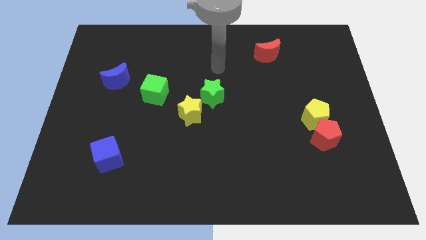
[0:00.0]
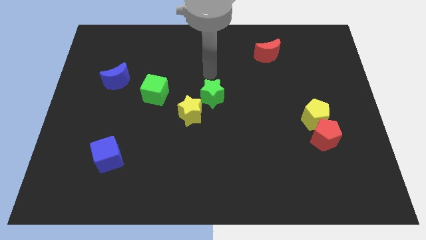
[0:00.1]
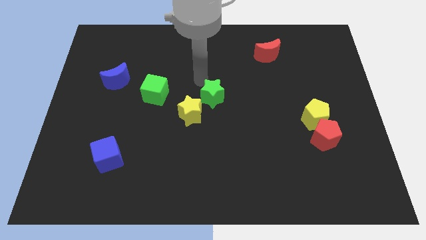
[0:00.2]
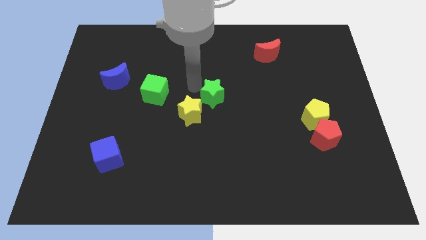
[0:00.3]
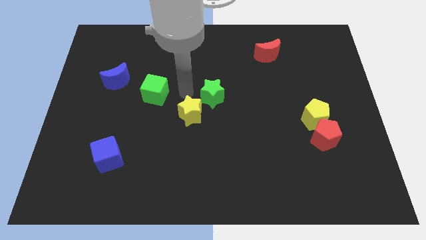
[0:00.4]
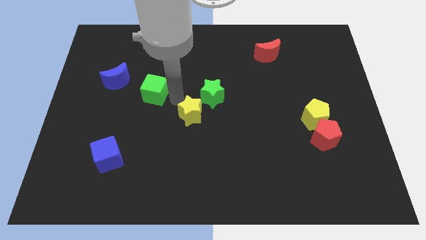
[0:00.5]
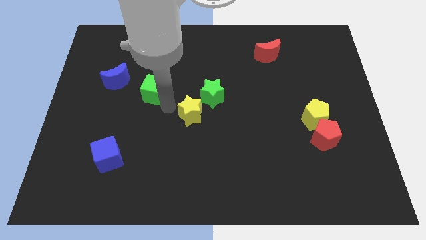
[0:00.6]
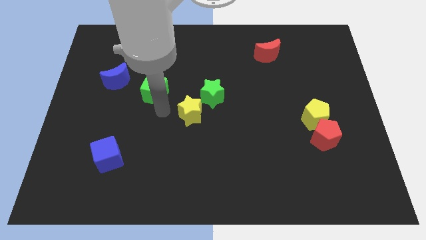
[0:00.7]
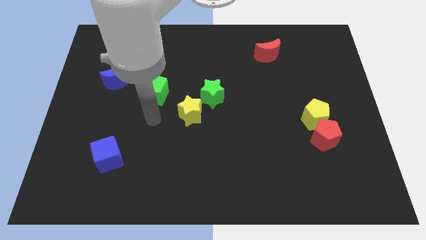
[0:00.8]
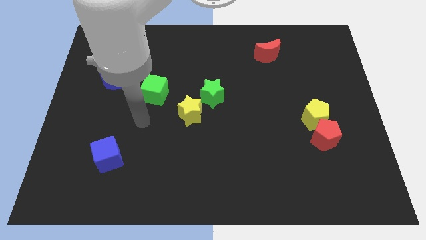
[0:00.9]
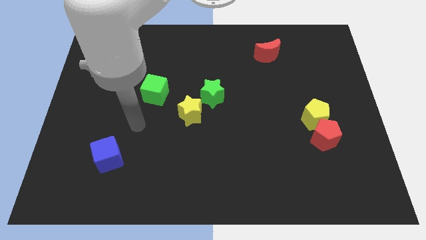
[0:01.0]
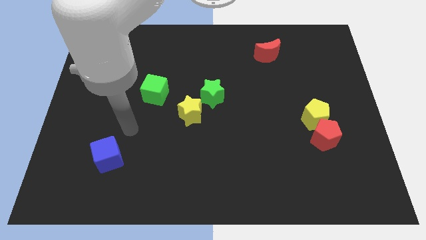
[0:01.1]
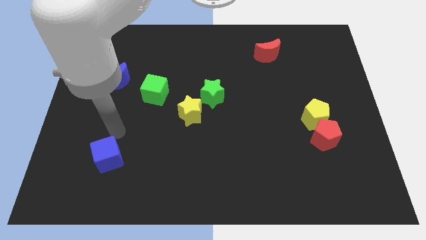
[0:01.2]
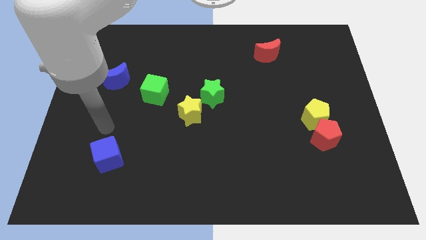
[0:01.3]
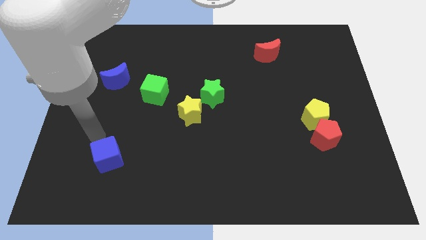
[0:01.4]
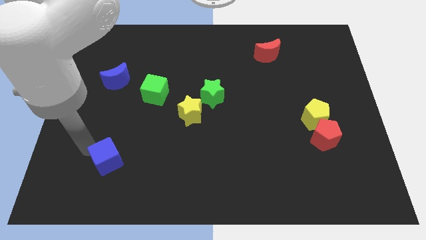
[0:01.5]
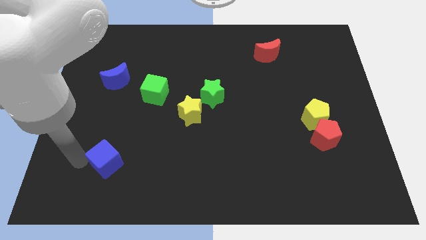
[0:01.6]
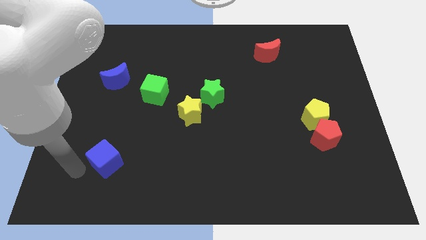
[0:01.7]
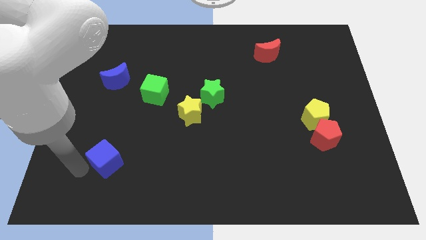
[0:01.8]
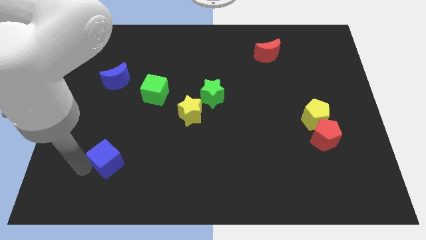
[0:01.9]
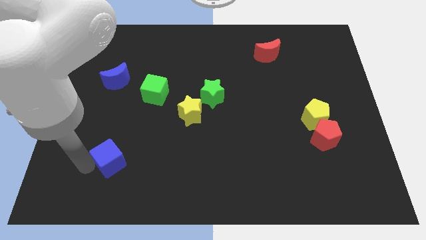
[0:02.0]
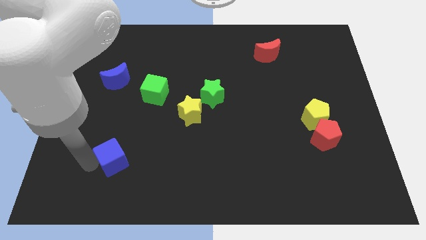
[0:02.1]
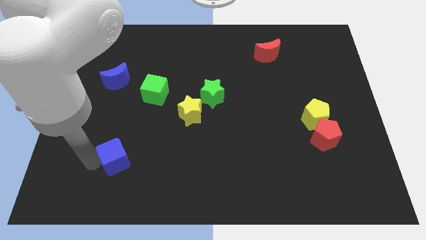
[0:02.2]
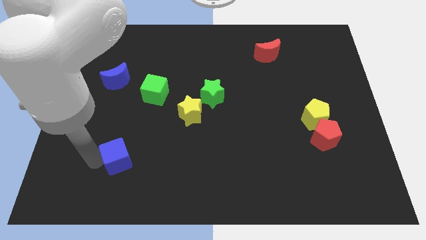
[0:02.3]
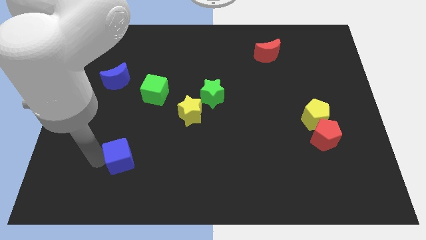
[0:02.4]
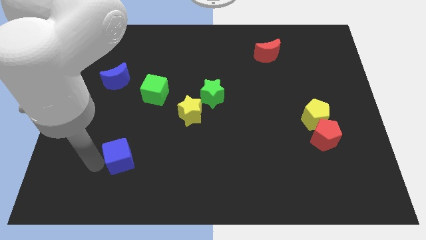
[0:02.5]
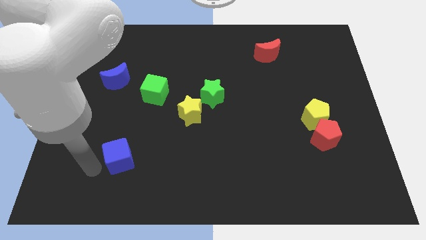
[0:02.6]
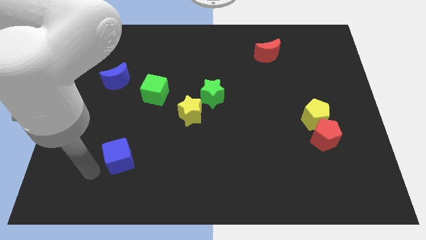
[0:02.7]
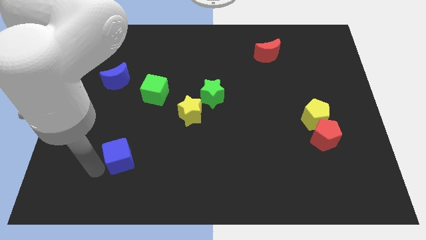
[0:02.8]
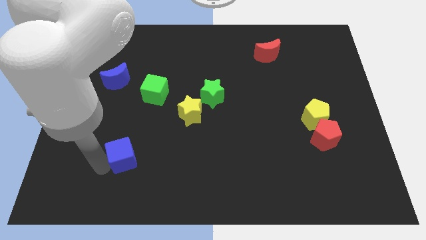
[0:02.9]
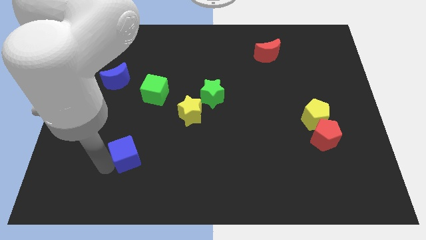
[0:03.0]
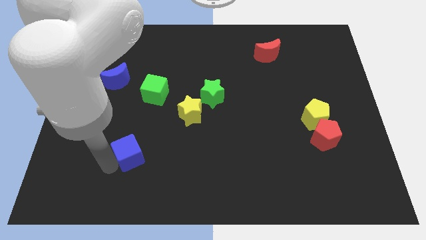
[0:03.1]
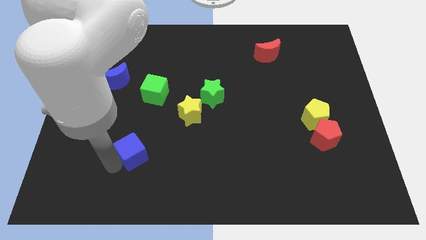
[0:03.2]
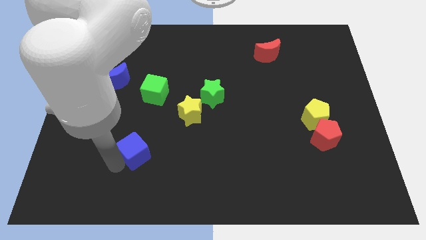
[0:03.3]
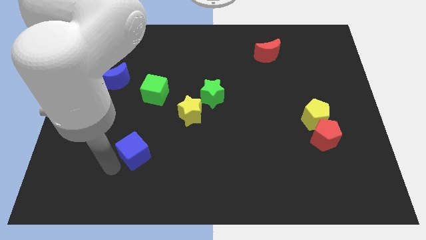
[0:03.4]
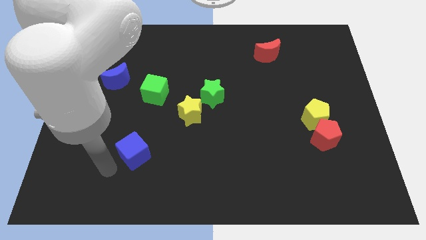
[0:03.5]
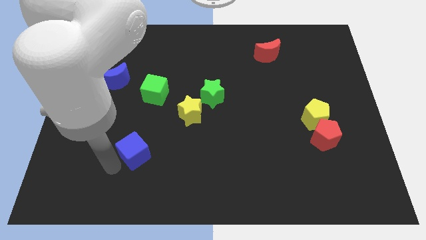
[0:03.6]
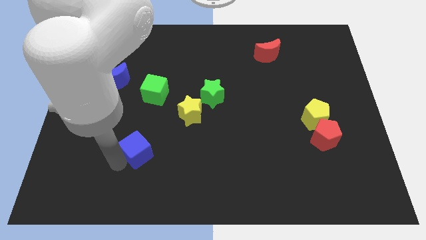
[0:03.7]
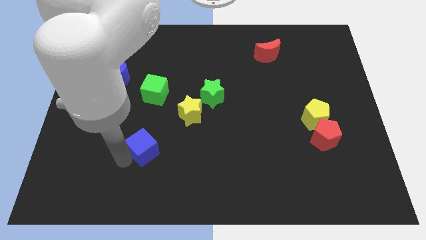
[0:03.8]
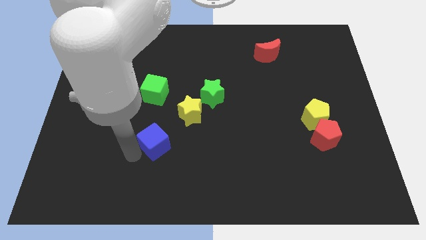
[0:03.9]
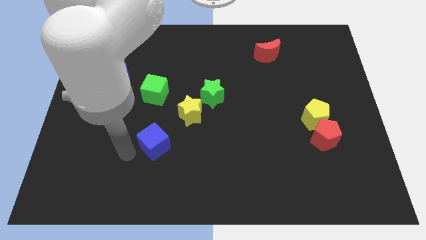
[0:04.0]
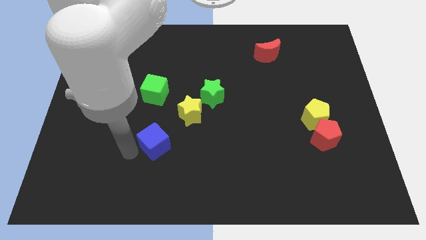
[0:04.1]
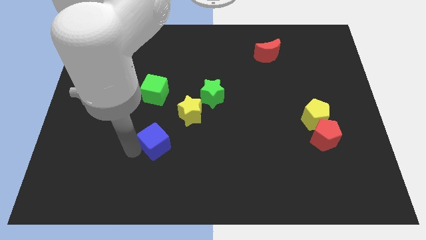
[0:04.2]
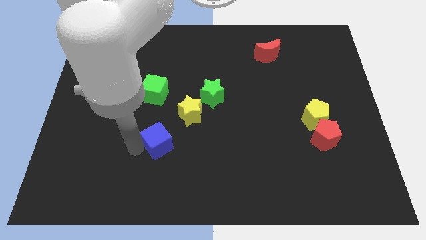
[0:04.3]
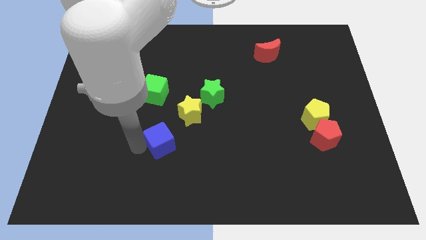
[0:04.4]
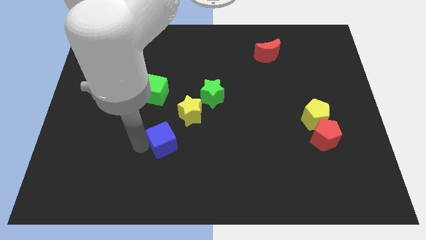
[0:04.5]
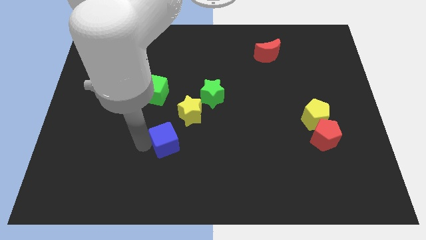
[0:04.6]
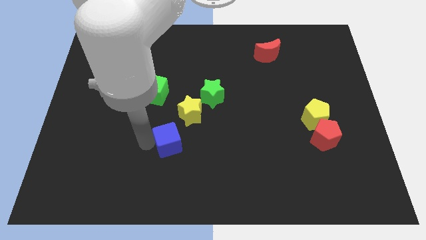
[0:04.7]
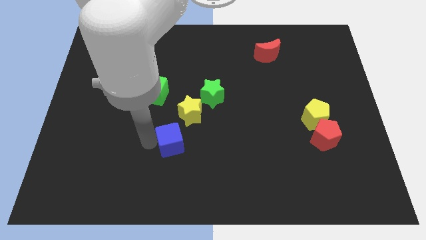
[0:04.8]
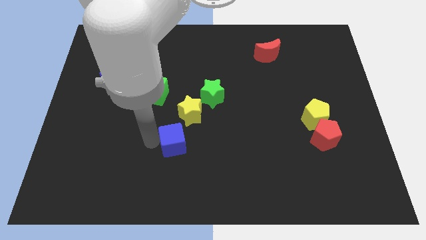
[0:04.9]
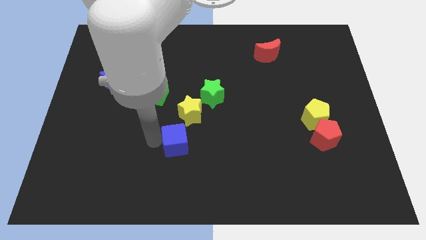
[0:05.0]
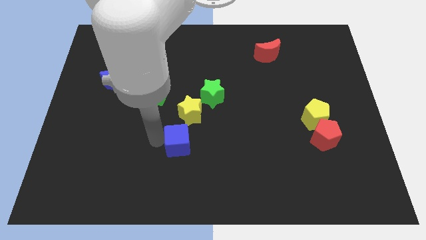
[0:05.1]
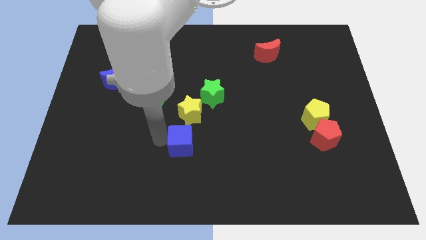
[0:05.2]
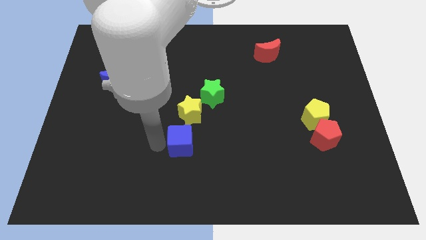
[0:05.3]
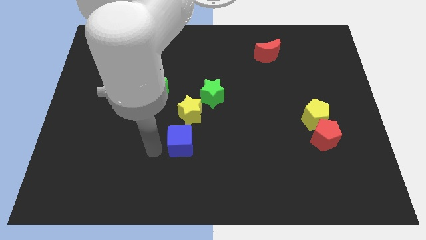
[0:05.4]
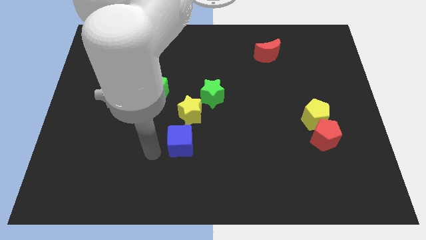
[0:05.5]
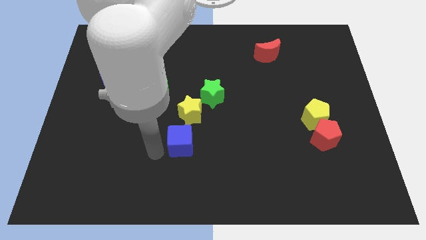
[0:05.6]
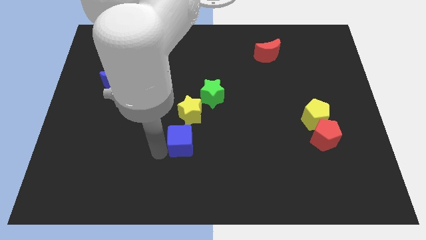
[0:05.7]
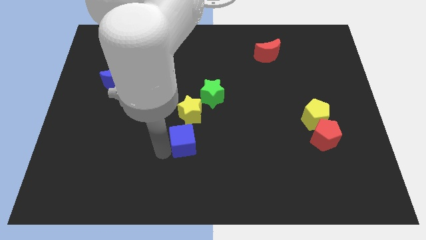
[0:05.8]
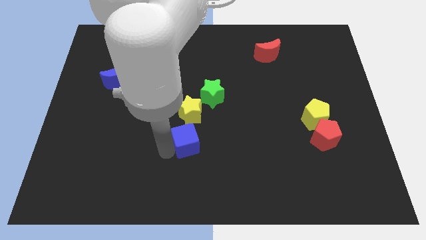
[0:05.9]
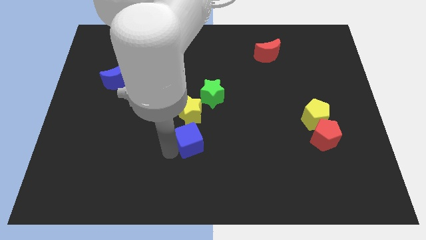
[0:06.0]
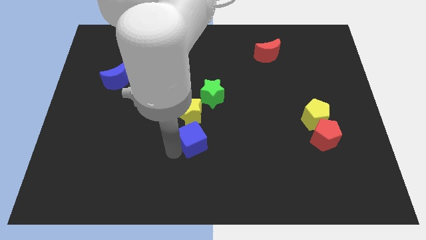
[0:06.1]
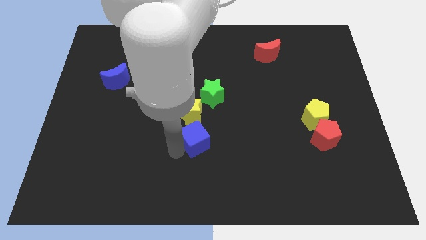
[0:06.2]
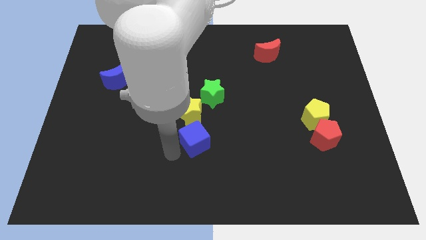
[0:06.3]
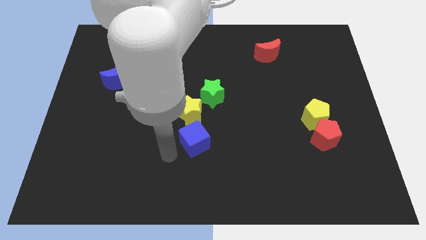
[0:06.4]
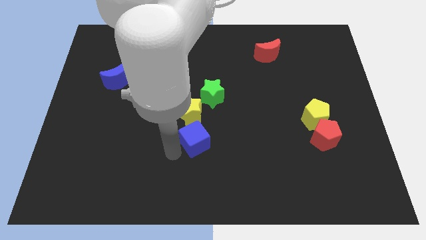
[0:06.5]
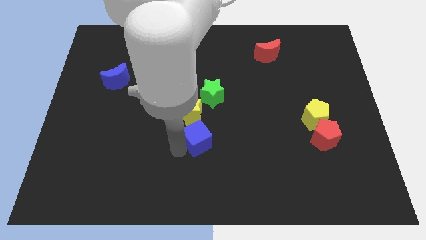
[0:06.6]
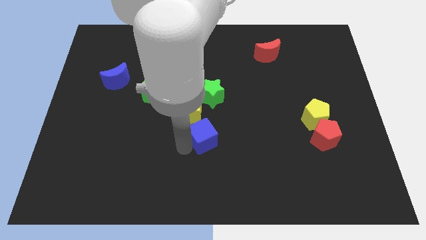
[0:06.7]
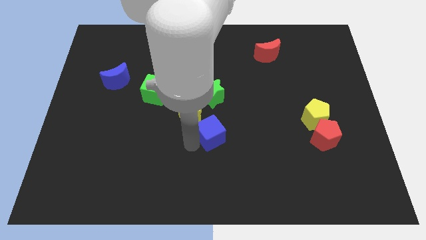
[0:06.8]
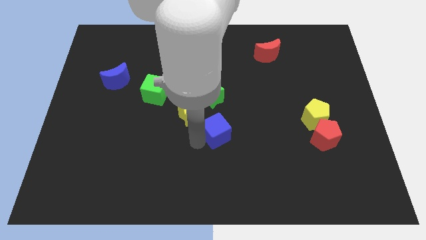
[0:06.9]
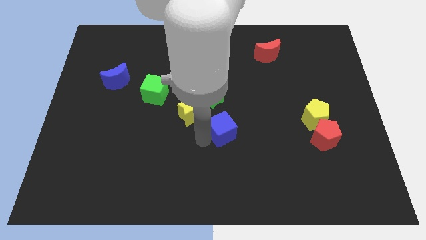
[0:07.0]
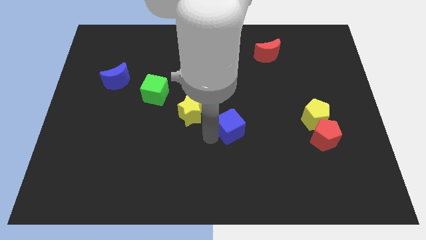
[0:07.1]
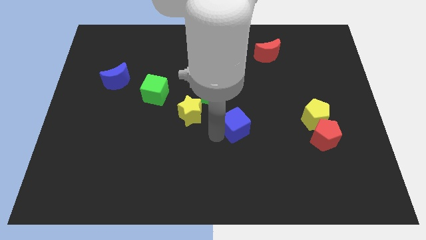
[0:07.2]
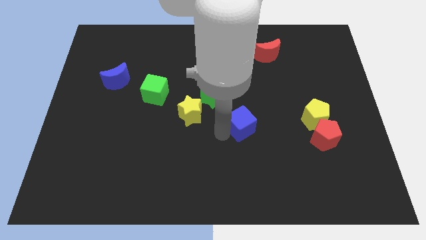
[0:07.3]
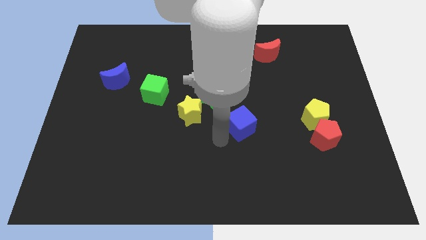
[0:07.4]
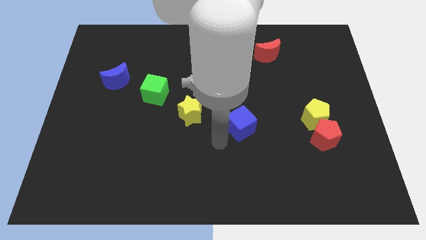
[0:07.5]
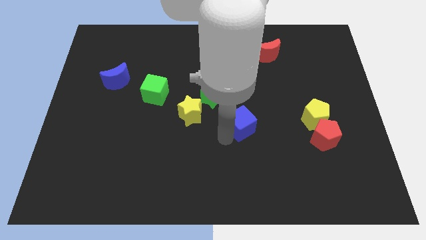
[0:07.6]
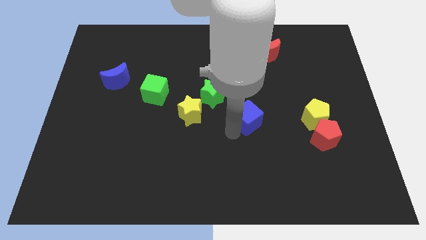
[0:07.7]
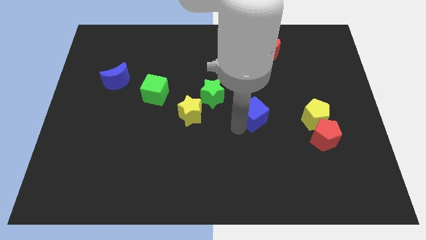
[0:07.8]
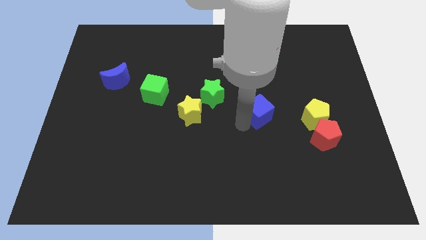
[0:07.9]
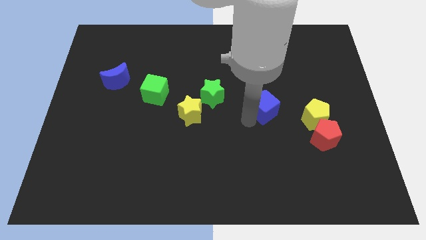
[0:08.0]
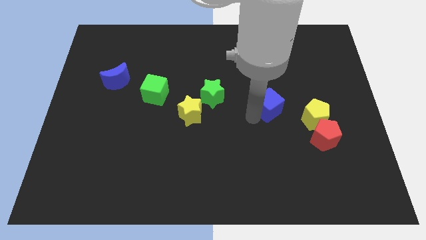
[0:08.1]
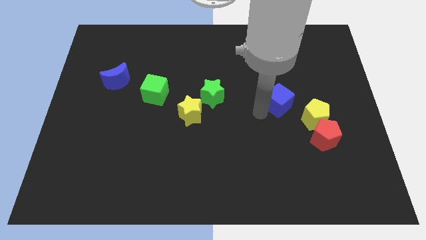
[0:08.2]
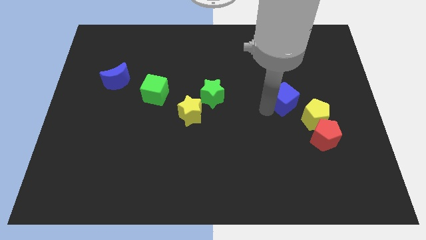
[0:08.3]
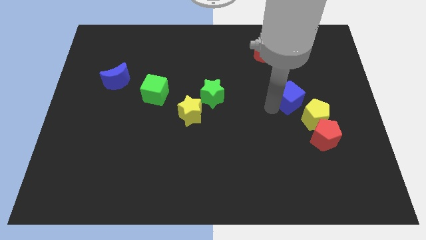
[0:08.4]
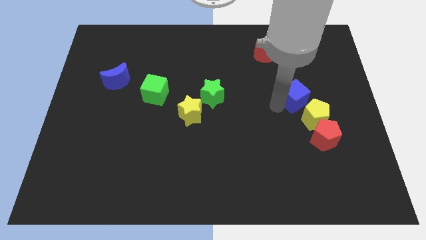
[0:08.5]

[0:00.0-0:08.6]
slide the blue cube to the top side of the yellow pentagon
